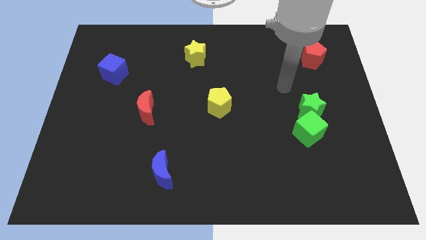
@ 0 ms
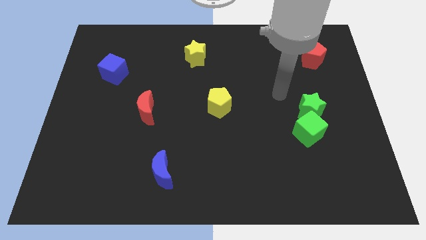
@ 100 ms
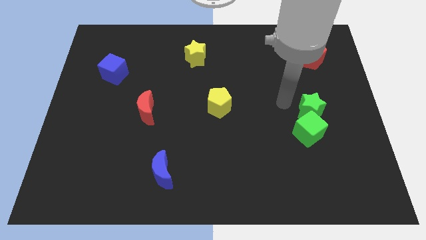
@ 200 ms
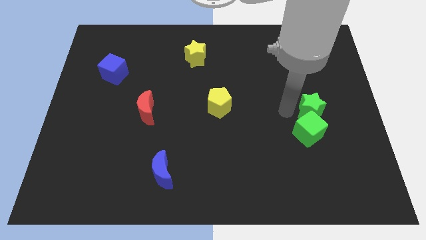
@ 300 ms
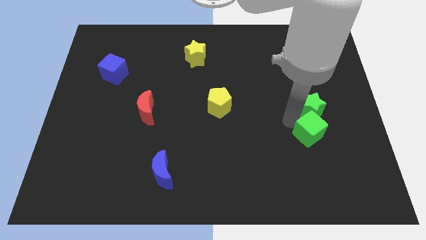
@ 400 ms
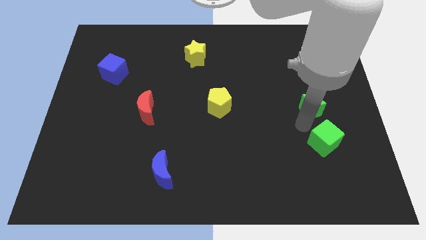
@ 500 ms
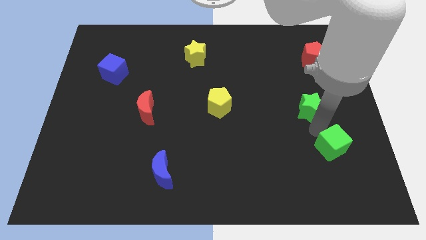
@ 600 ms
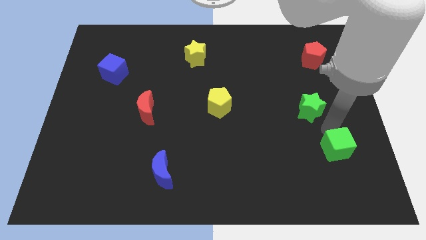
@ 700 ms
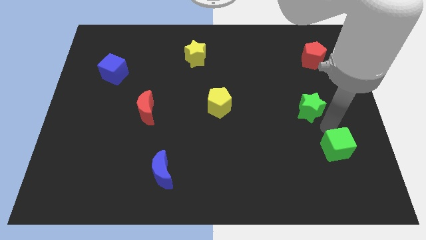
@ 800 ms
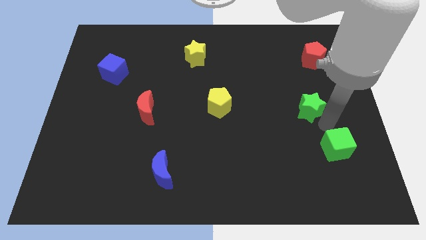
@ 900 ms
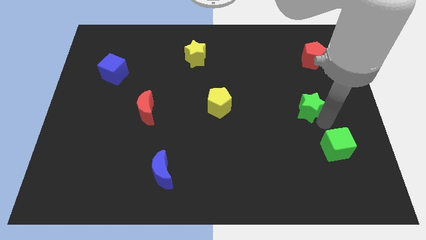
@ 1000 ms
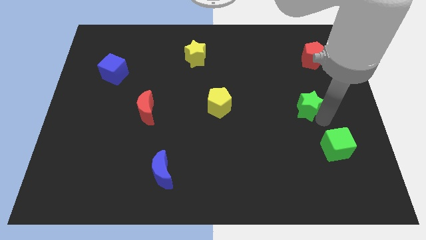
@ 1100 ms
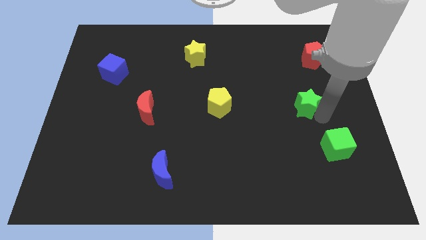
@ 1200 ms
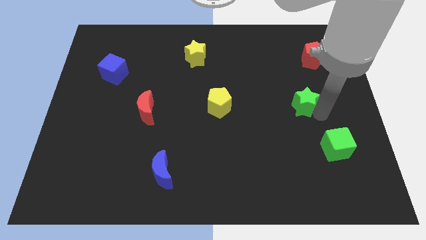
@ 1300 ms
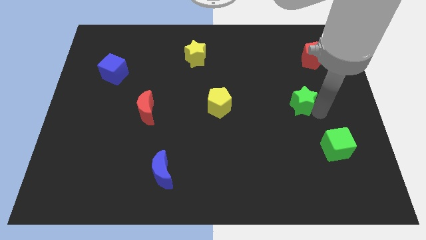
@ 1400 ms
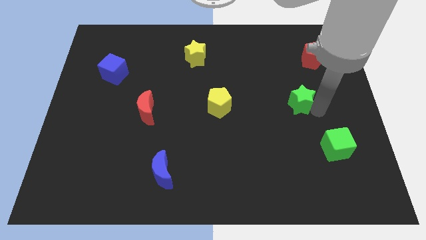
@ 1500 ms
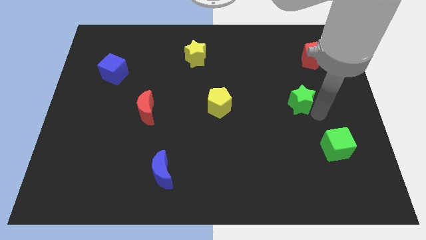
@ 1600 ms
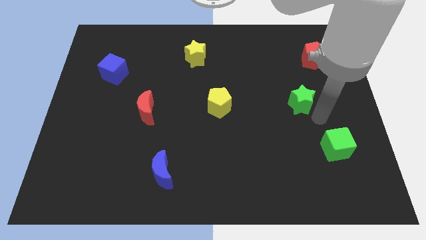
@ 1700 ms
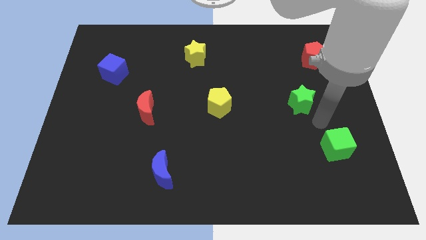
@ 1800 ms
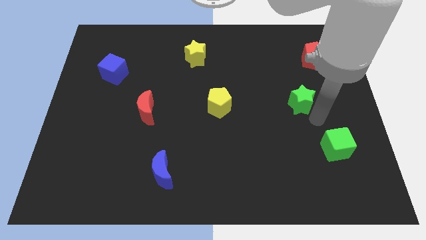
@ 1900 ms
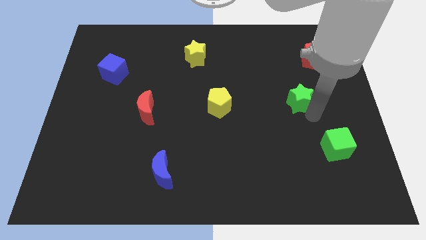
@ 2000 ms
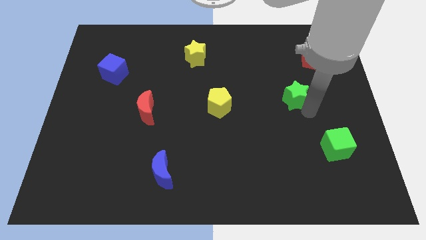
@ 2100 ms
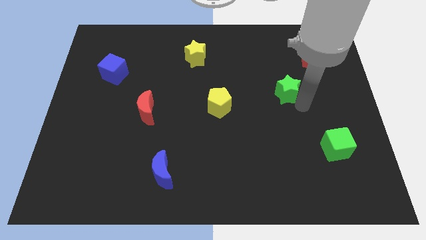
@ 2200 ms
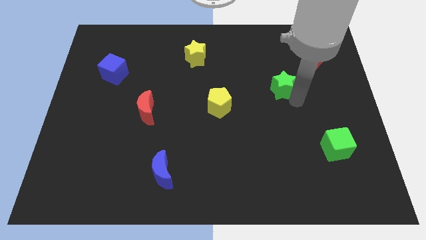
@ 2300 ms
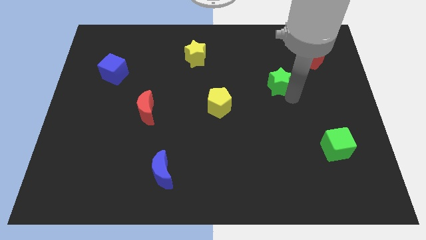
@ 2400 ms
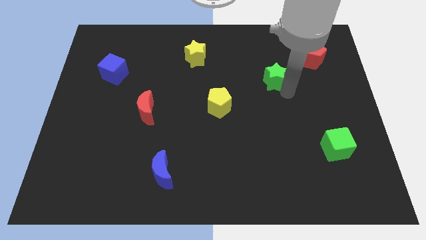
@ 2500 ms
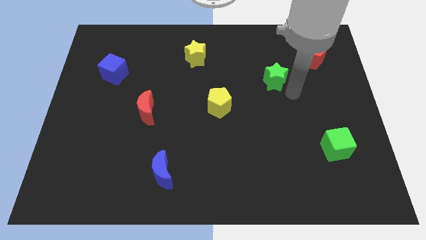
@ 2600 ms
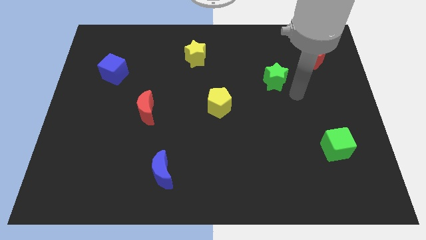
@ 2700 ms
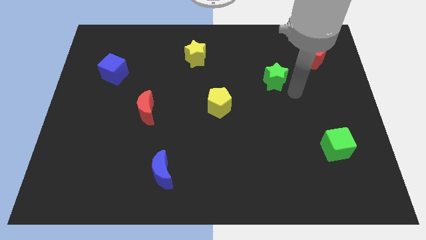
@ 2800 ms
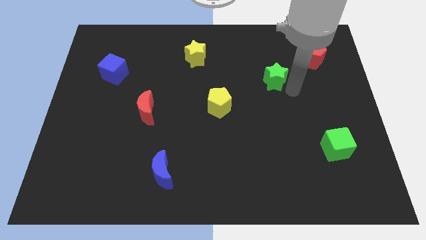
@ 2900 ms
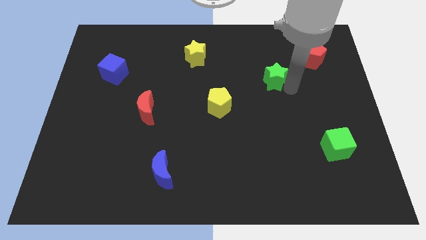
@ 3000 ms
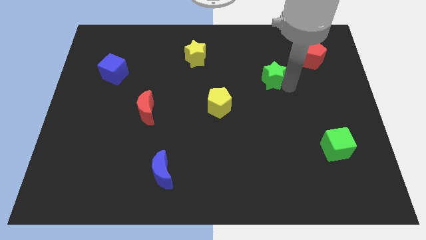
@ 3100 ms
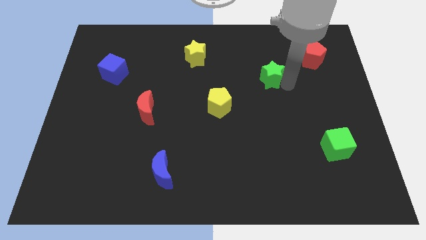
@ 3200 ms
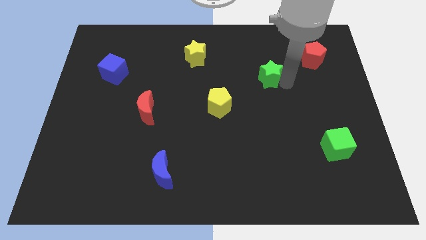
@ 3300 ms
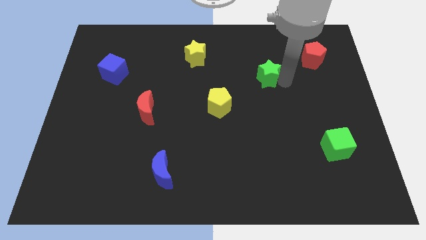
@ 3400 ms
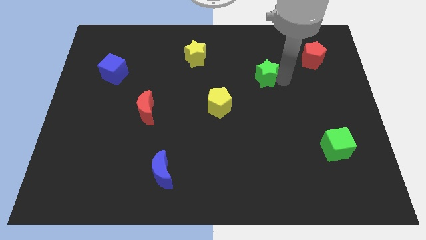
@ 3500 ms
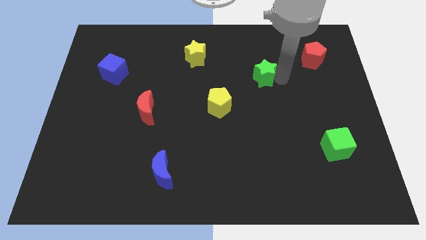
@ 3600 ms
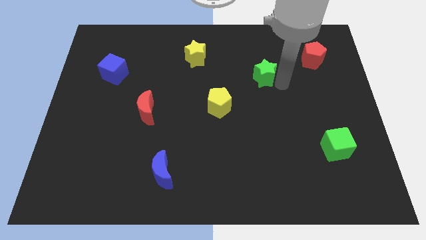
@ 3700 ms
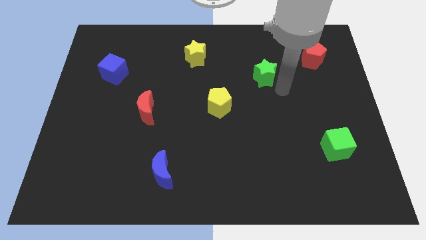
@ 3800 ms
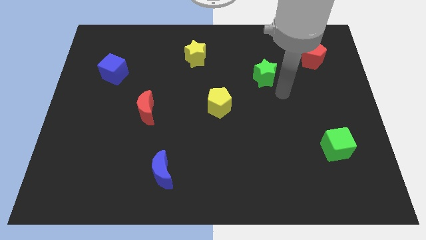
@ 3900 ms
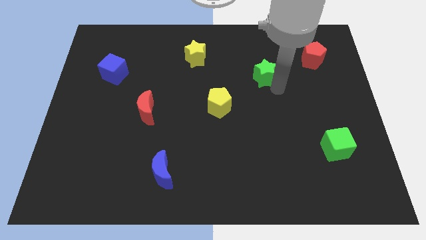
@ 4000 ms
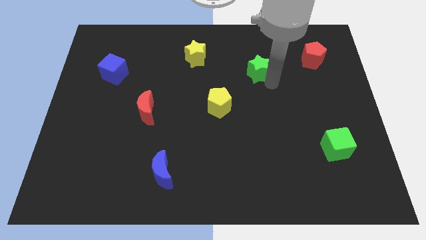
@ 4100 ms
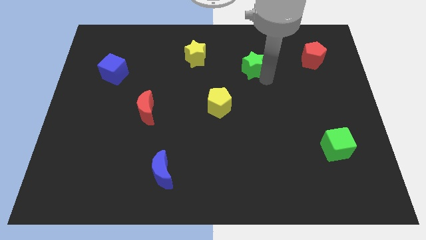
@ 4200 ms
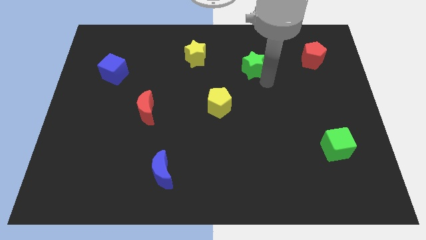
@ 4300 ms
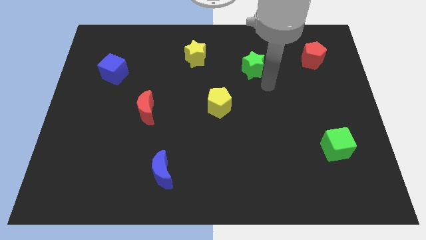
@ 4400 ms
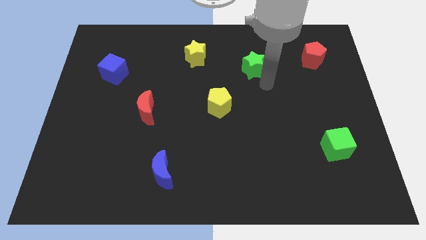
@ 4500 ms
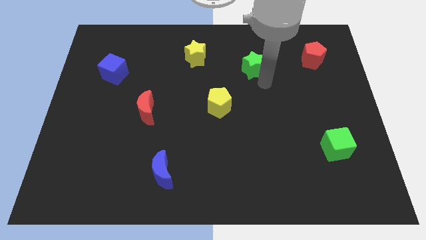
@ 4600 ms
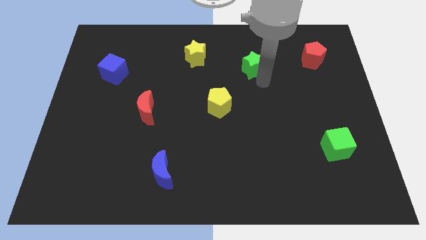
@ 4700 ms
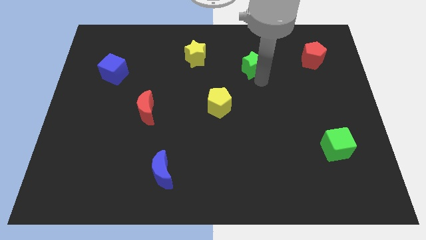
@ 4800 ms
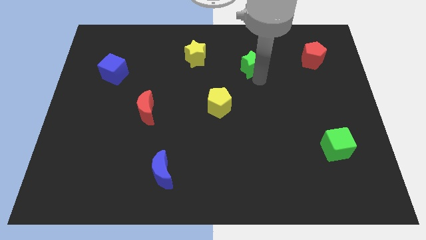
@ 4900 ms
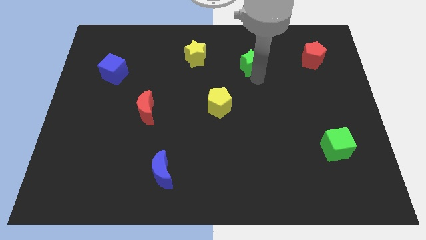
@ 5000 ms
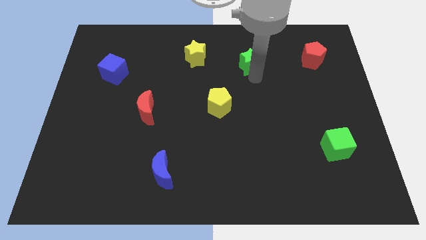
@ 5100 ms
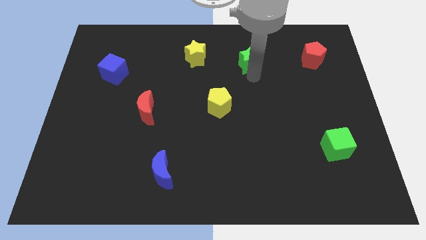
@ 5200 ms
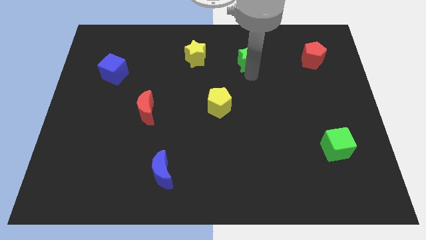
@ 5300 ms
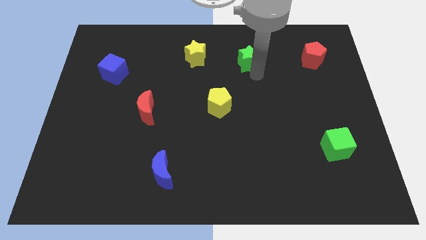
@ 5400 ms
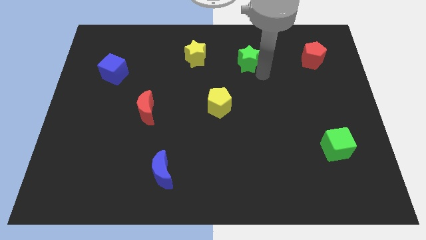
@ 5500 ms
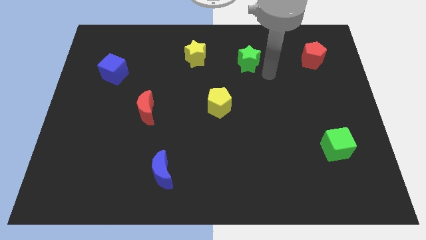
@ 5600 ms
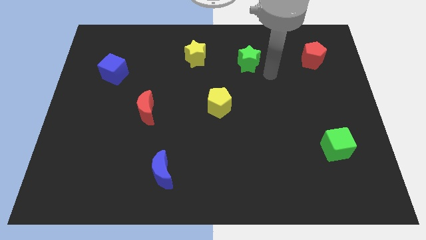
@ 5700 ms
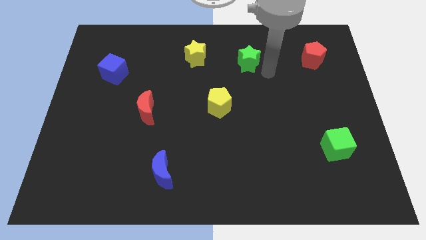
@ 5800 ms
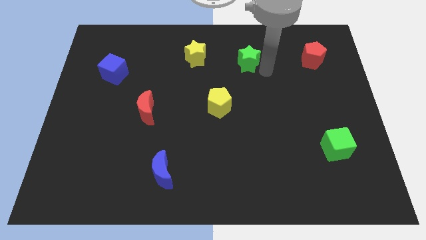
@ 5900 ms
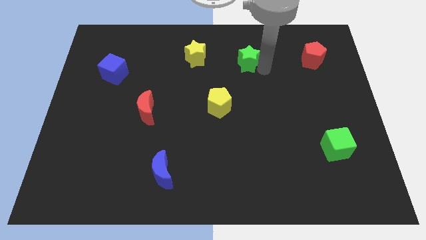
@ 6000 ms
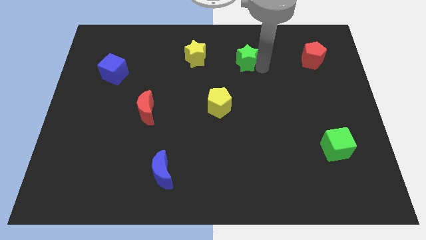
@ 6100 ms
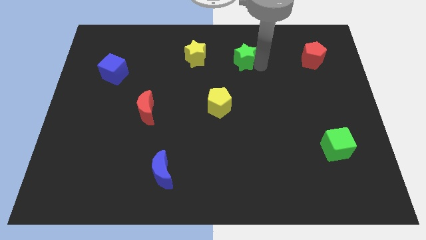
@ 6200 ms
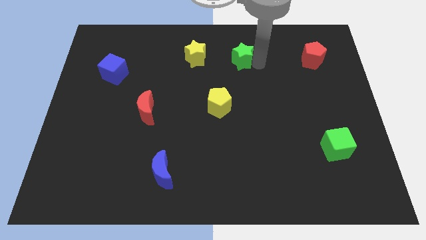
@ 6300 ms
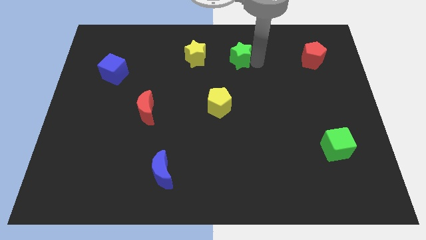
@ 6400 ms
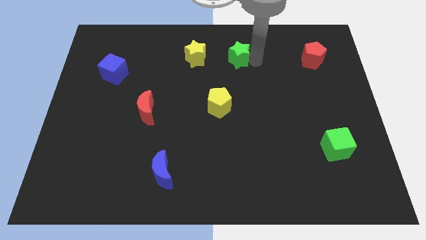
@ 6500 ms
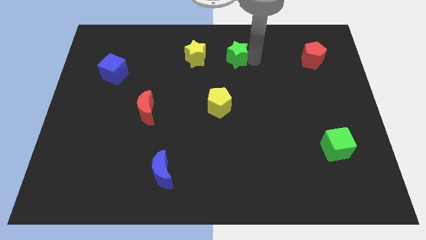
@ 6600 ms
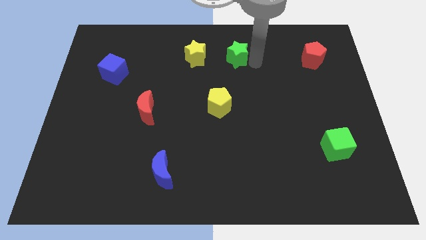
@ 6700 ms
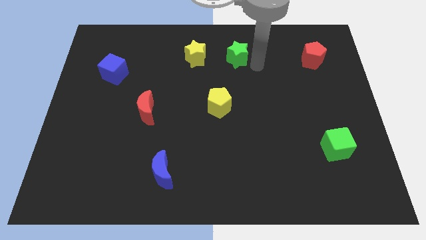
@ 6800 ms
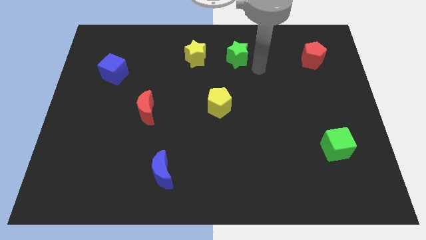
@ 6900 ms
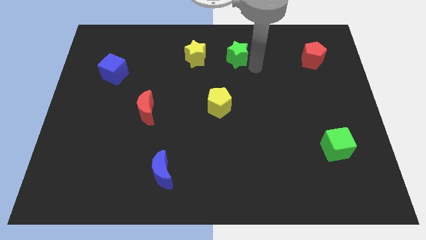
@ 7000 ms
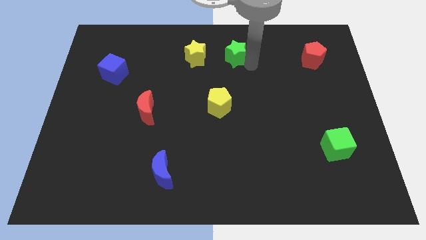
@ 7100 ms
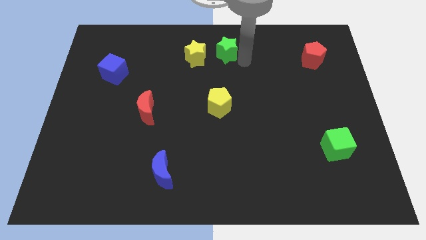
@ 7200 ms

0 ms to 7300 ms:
move the green star to the top
